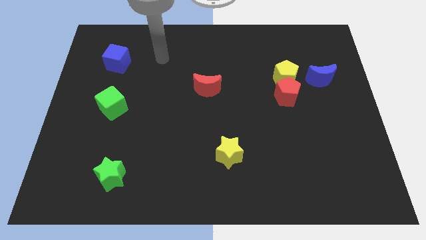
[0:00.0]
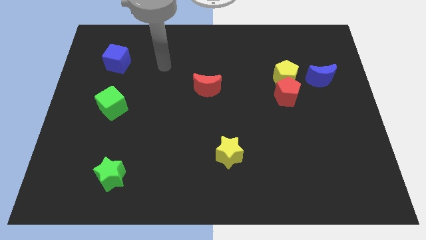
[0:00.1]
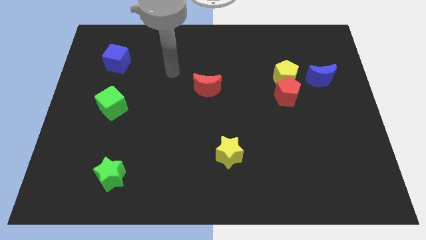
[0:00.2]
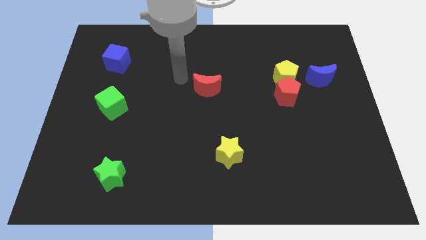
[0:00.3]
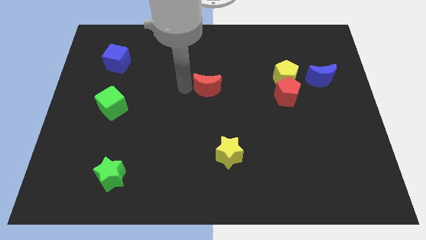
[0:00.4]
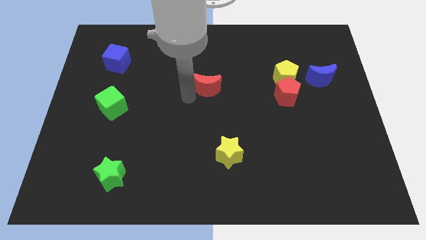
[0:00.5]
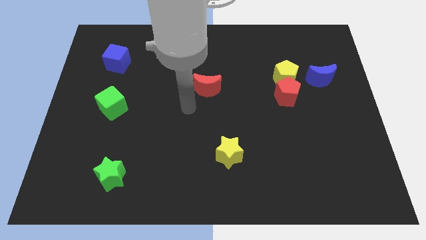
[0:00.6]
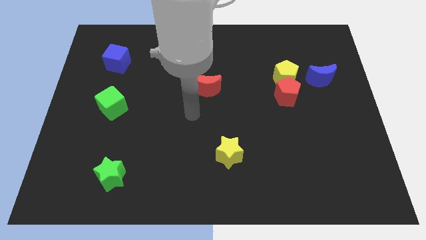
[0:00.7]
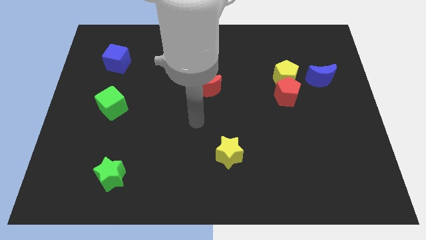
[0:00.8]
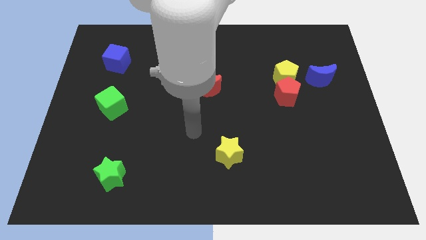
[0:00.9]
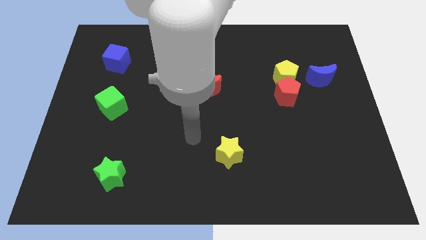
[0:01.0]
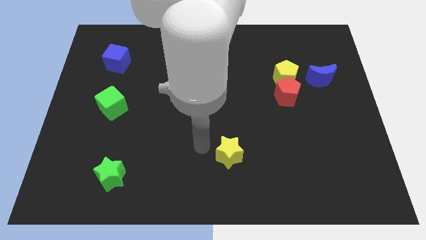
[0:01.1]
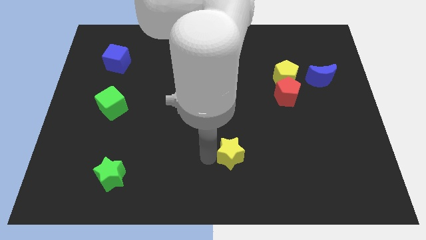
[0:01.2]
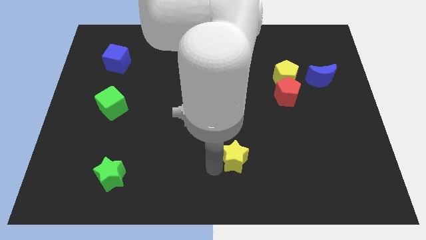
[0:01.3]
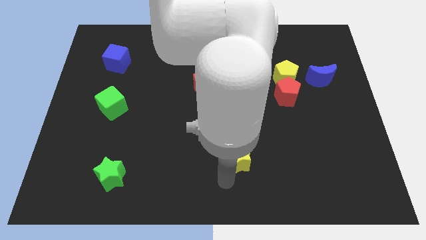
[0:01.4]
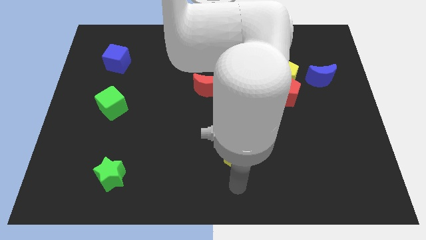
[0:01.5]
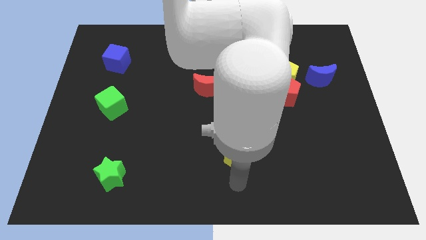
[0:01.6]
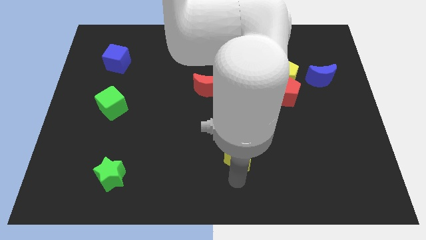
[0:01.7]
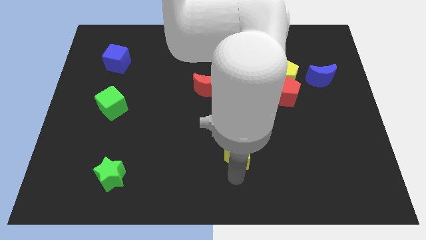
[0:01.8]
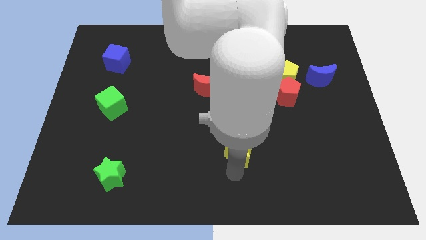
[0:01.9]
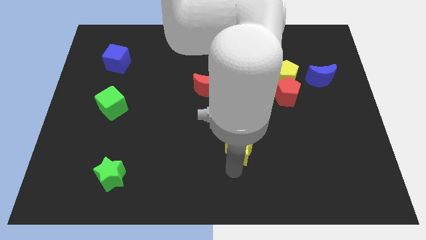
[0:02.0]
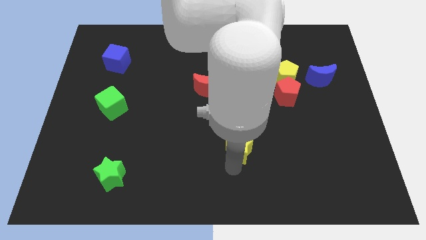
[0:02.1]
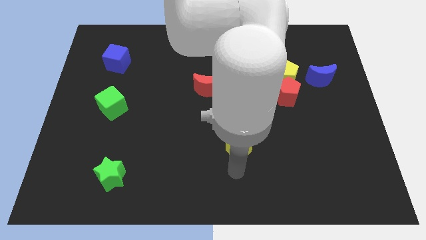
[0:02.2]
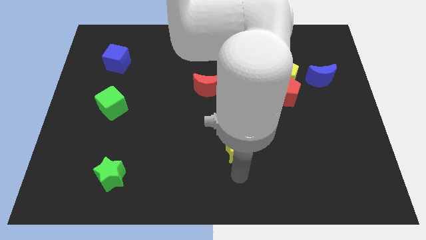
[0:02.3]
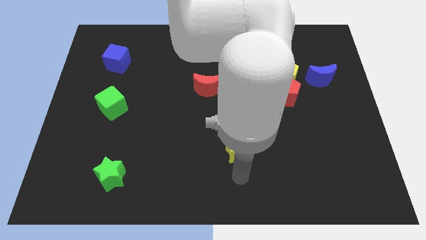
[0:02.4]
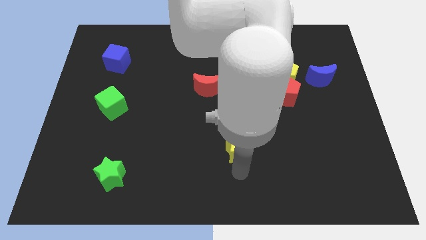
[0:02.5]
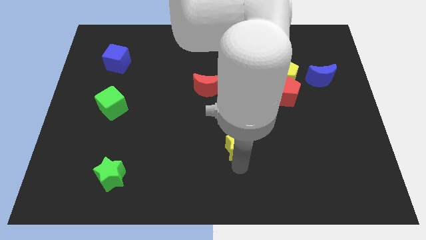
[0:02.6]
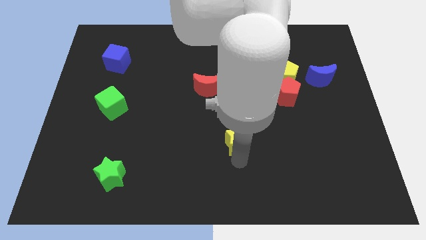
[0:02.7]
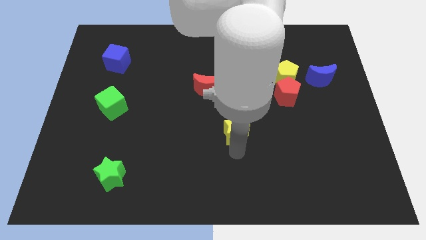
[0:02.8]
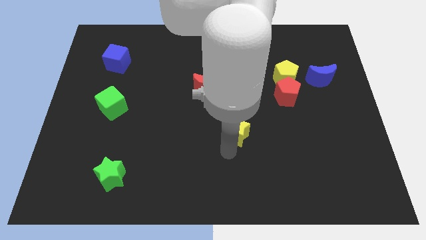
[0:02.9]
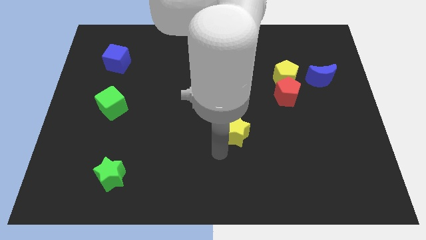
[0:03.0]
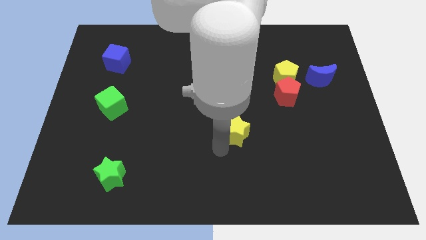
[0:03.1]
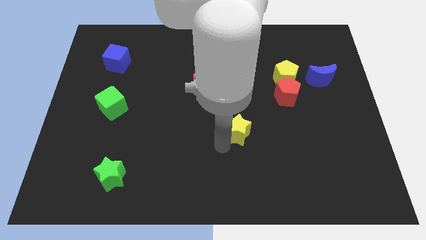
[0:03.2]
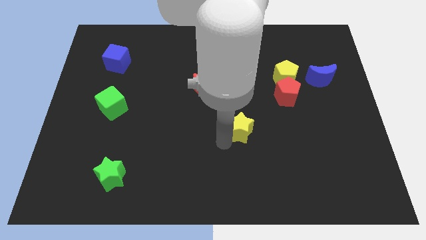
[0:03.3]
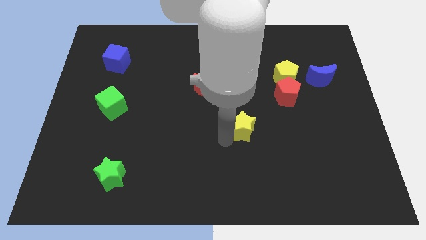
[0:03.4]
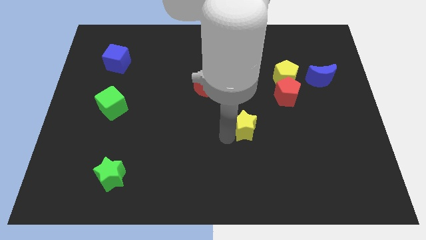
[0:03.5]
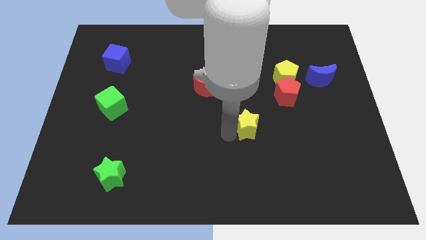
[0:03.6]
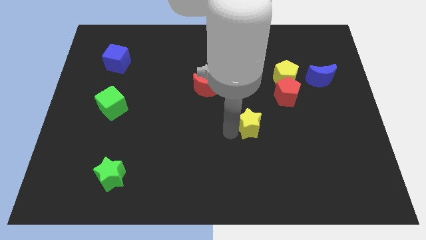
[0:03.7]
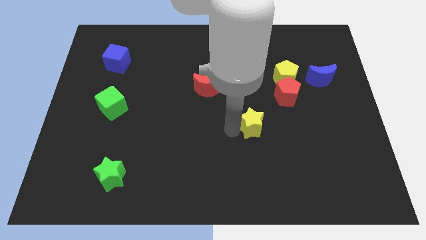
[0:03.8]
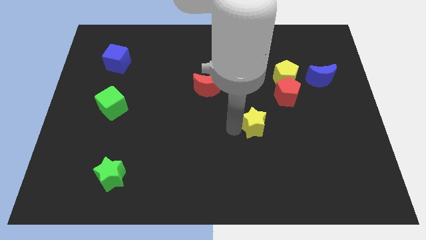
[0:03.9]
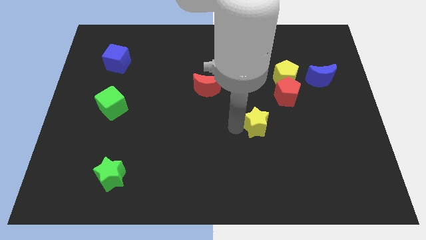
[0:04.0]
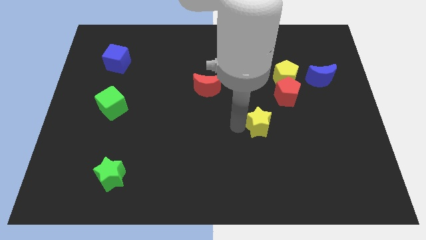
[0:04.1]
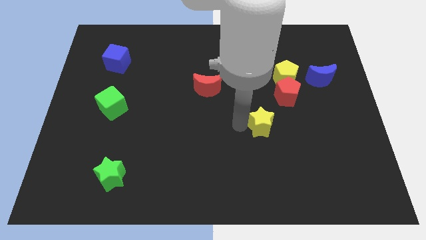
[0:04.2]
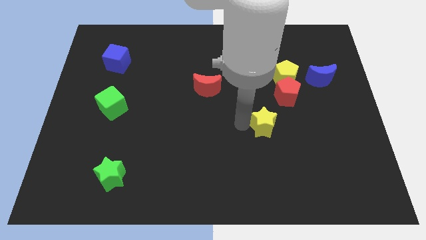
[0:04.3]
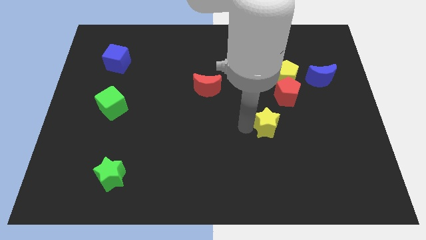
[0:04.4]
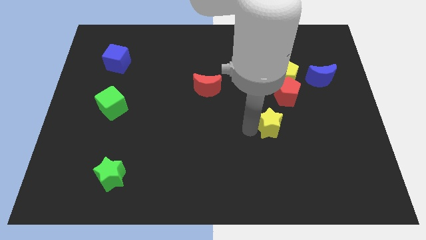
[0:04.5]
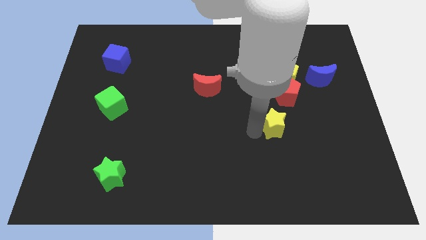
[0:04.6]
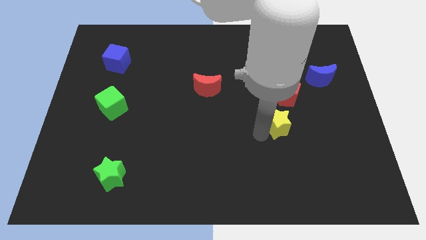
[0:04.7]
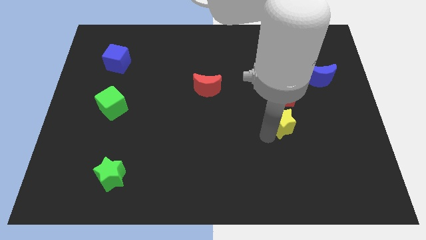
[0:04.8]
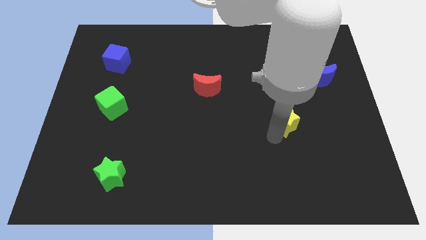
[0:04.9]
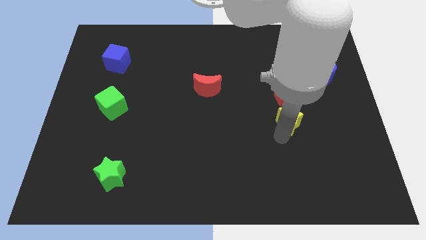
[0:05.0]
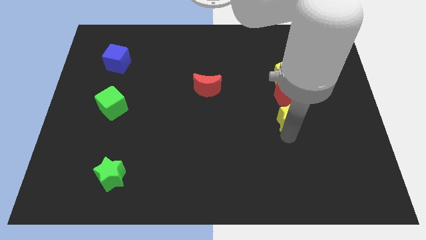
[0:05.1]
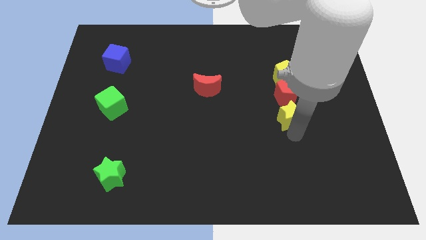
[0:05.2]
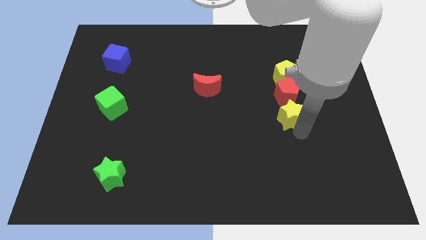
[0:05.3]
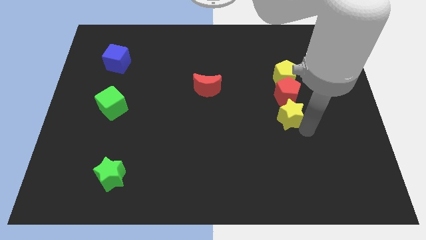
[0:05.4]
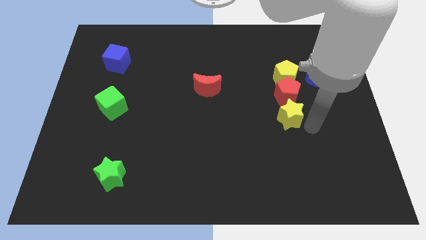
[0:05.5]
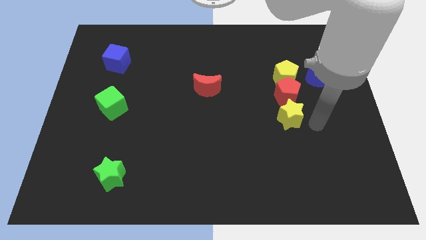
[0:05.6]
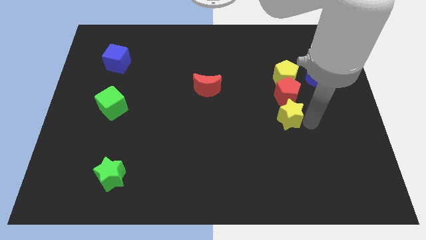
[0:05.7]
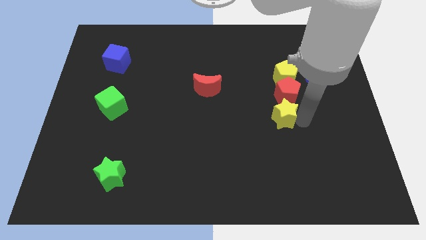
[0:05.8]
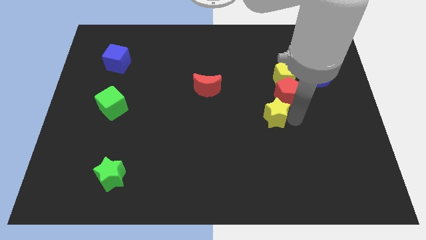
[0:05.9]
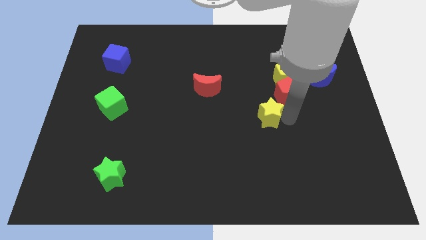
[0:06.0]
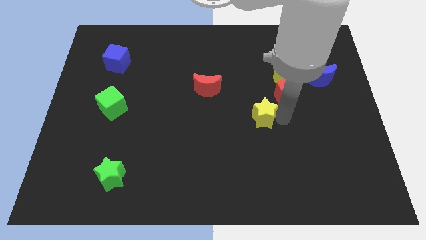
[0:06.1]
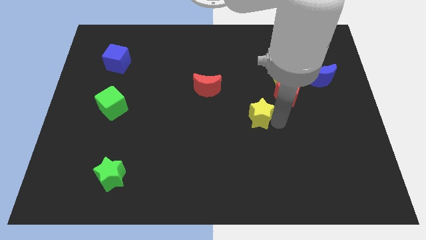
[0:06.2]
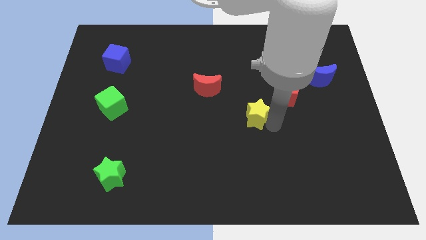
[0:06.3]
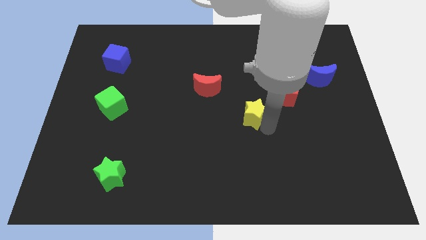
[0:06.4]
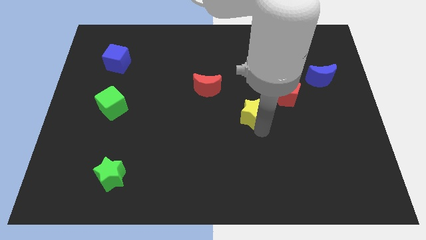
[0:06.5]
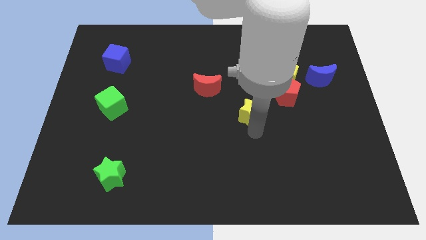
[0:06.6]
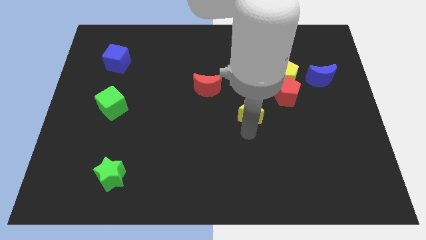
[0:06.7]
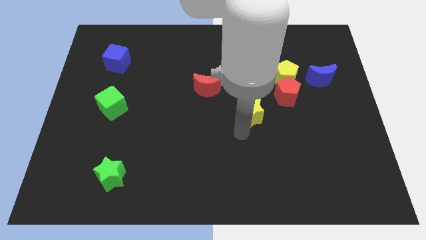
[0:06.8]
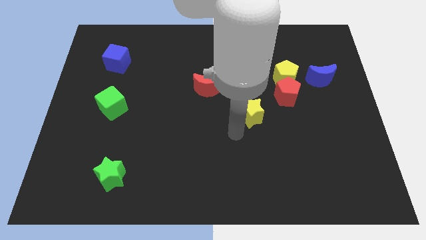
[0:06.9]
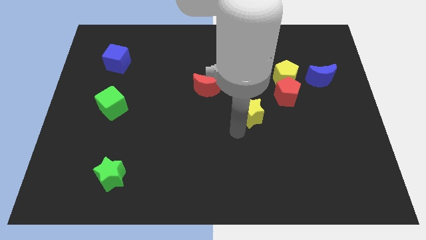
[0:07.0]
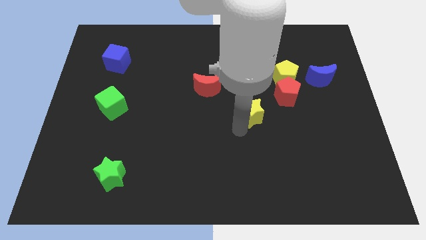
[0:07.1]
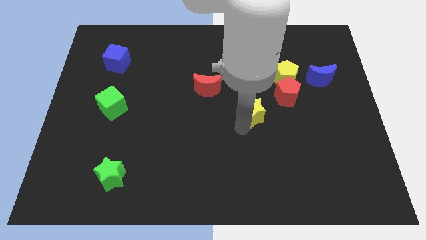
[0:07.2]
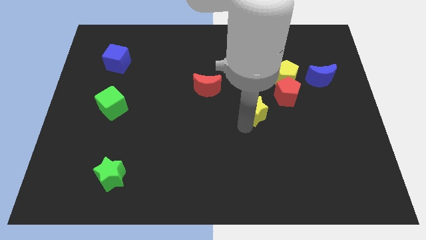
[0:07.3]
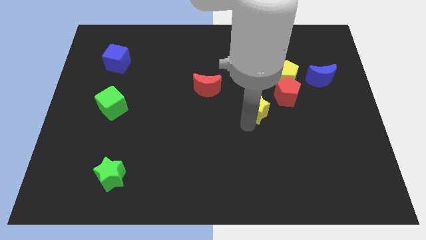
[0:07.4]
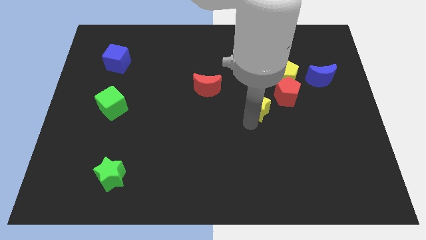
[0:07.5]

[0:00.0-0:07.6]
slide the yellow star to the bottom left of the yellow pentagon

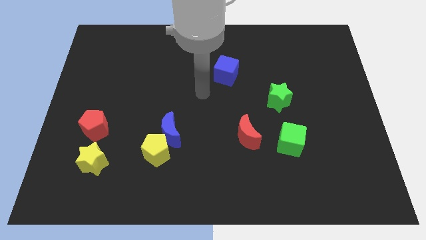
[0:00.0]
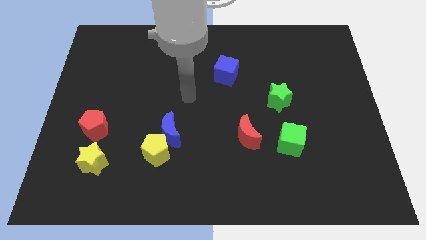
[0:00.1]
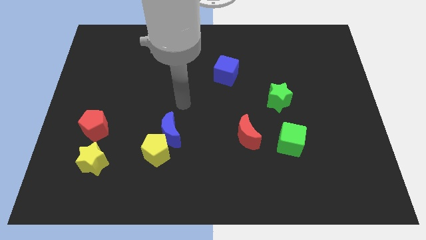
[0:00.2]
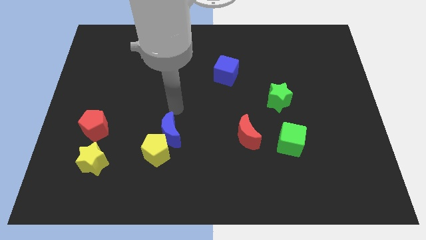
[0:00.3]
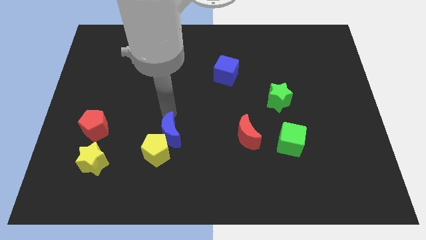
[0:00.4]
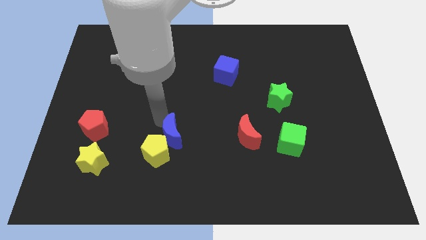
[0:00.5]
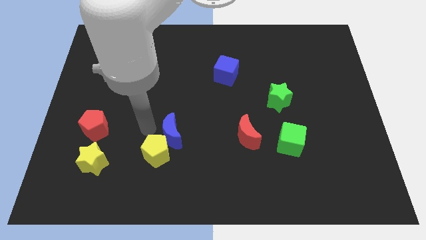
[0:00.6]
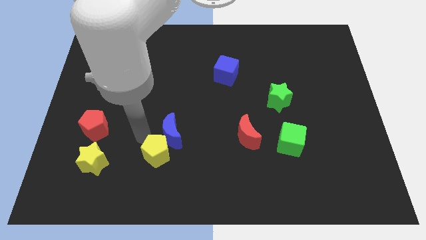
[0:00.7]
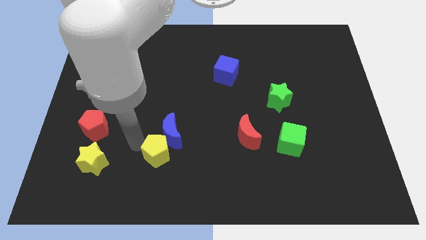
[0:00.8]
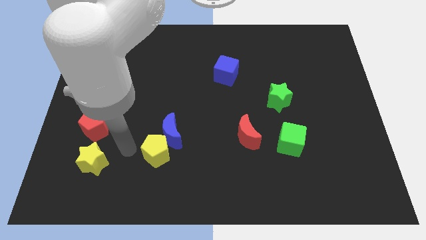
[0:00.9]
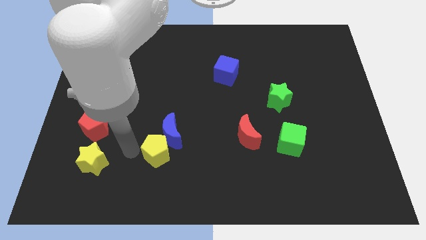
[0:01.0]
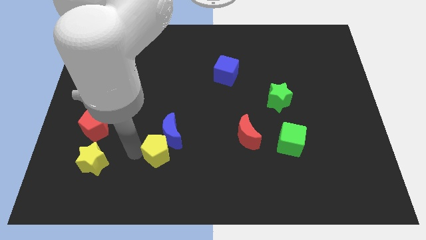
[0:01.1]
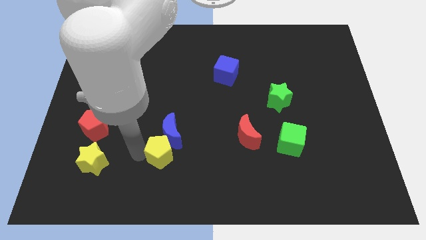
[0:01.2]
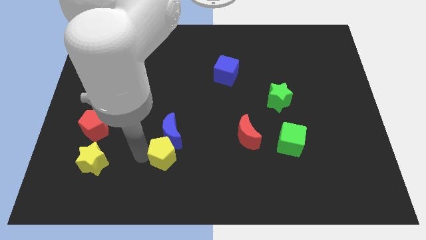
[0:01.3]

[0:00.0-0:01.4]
move the yellow pentagon to the bottom right of the blue moon
